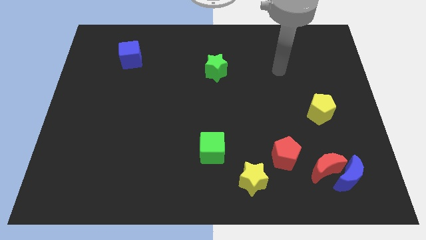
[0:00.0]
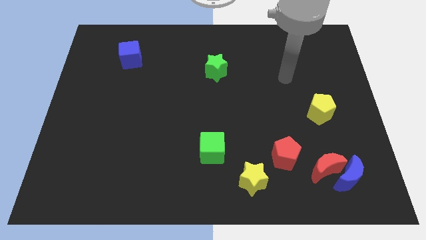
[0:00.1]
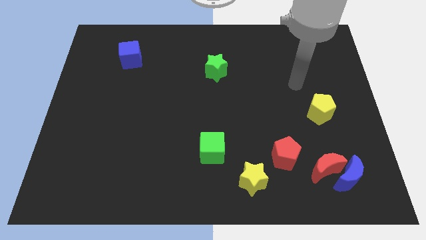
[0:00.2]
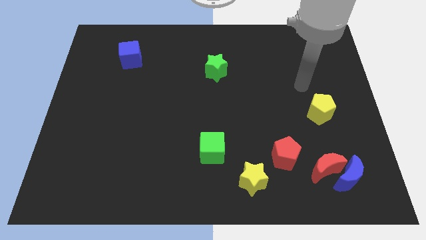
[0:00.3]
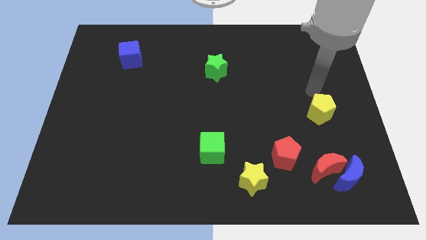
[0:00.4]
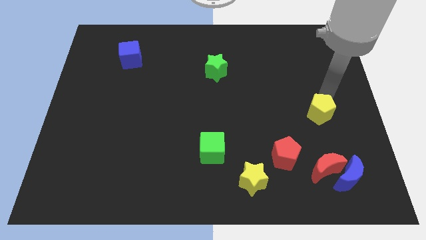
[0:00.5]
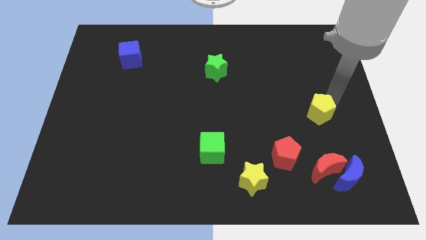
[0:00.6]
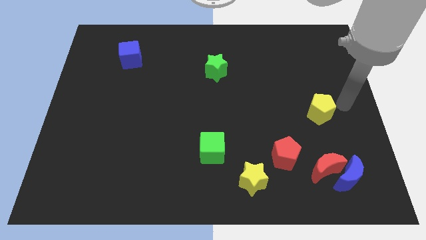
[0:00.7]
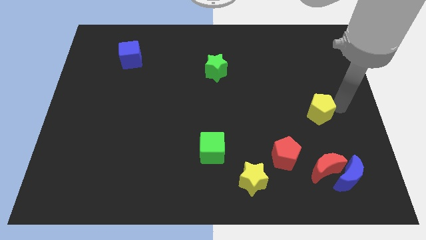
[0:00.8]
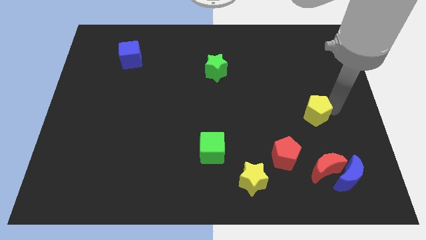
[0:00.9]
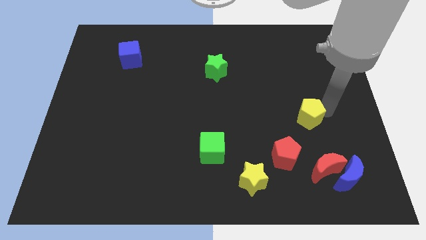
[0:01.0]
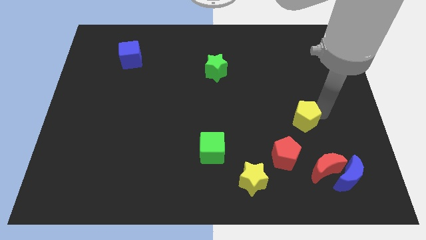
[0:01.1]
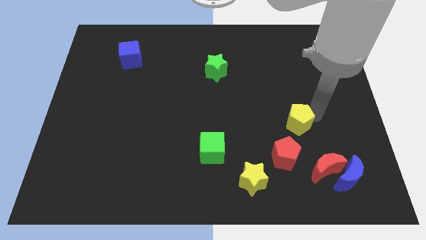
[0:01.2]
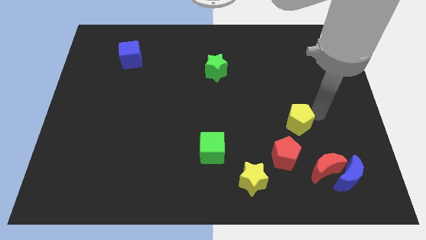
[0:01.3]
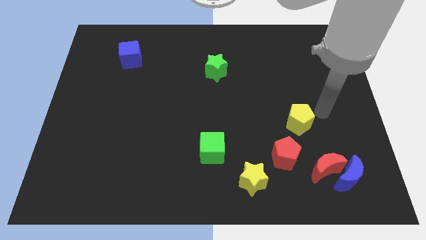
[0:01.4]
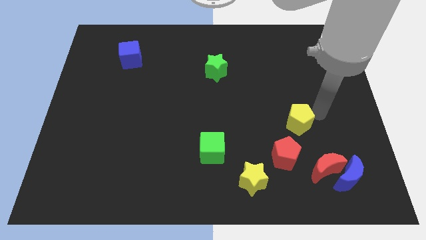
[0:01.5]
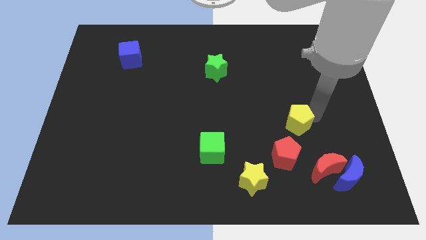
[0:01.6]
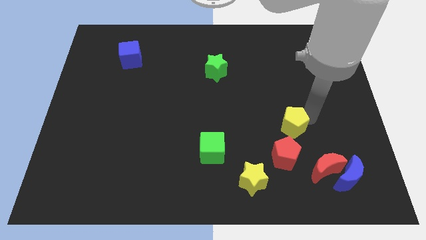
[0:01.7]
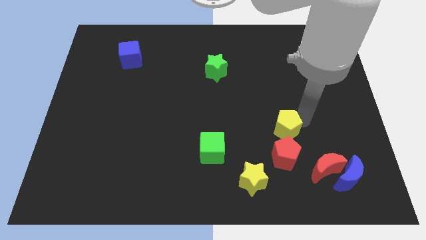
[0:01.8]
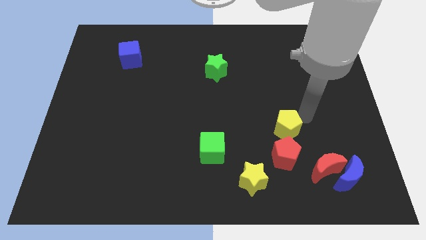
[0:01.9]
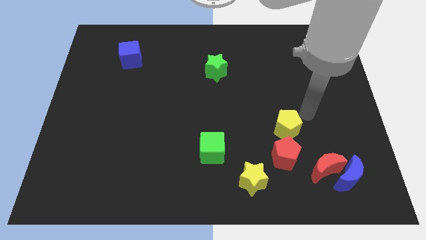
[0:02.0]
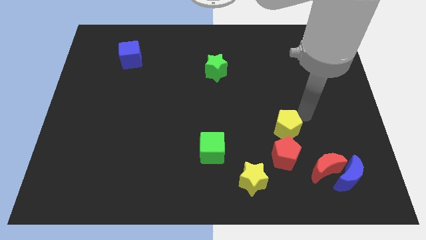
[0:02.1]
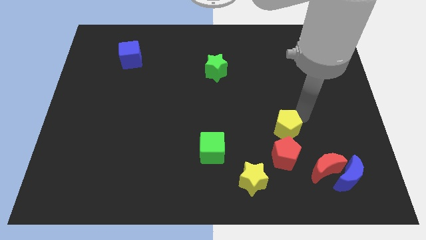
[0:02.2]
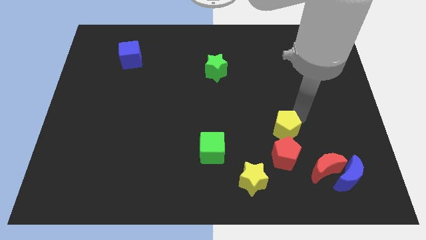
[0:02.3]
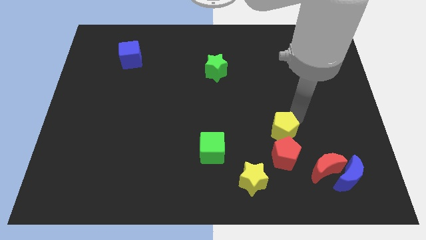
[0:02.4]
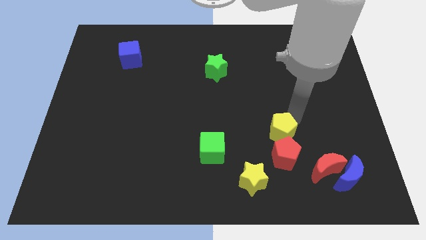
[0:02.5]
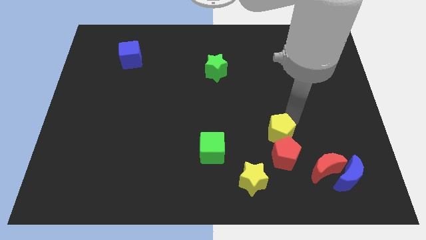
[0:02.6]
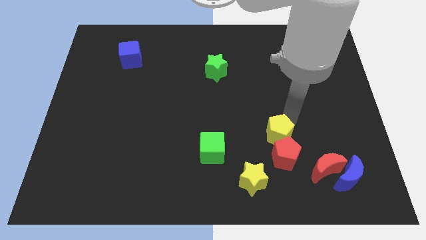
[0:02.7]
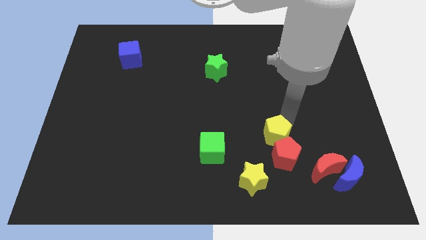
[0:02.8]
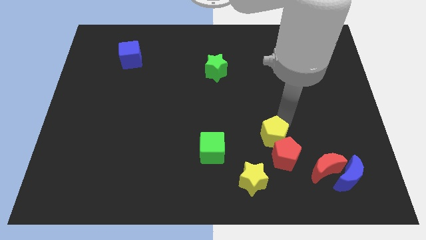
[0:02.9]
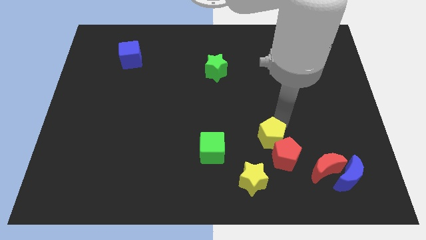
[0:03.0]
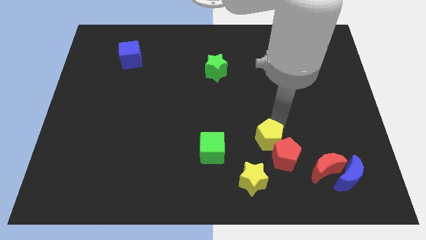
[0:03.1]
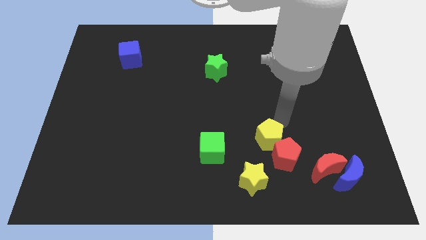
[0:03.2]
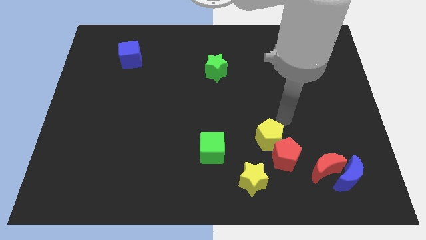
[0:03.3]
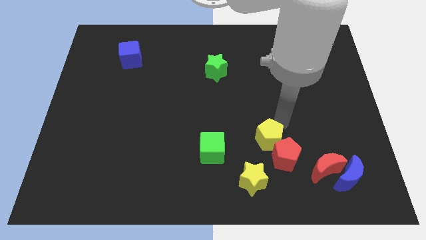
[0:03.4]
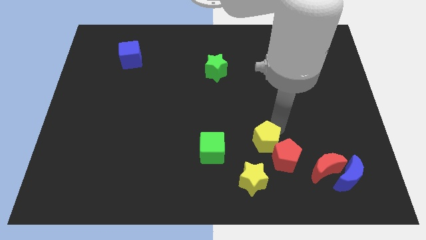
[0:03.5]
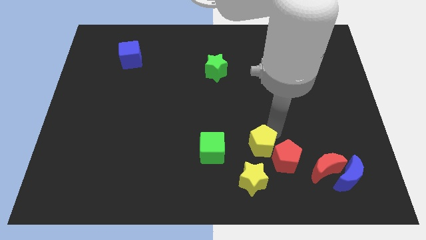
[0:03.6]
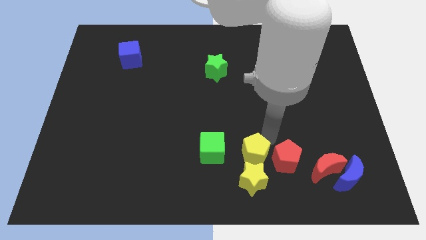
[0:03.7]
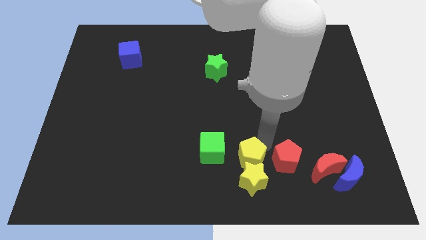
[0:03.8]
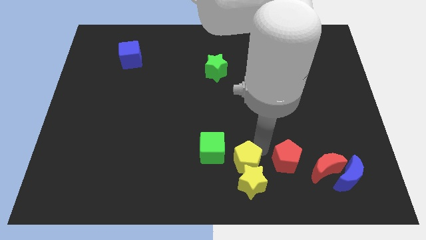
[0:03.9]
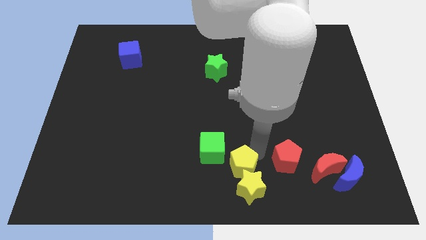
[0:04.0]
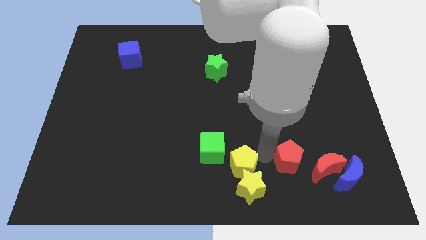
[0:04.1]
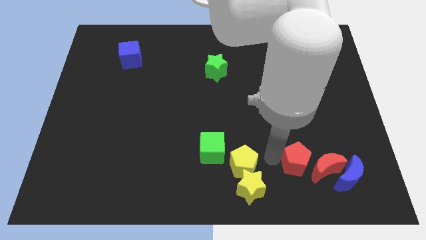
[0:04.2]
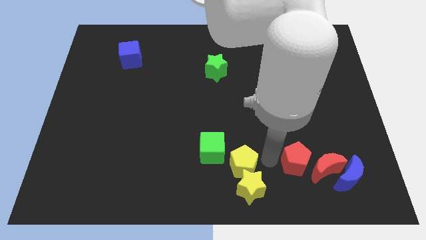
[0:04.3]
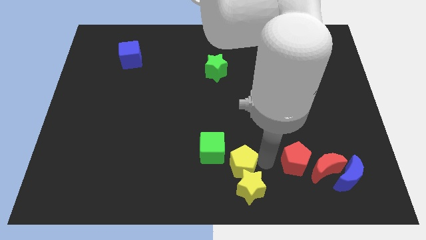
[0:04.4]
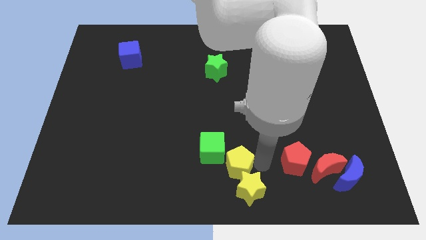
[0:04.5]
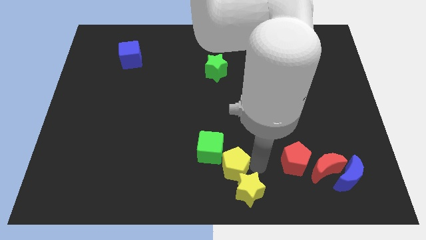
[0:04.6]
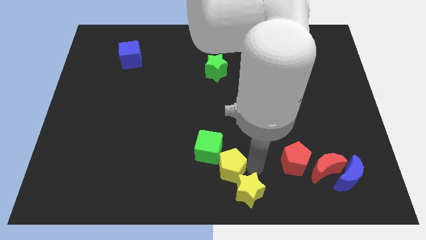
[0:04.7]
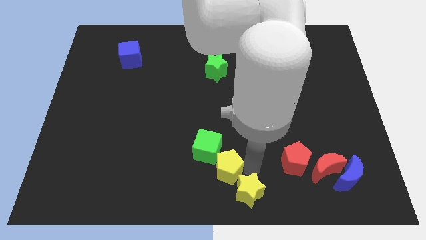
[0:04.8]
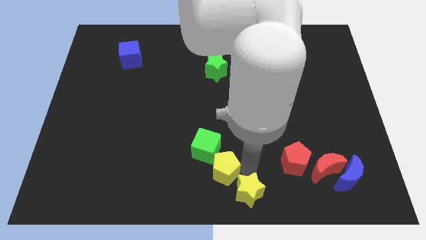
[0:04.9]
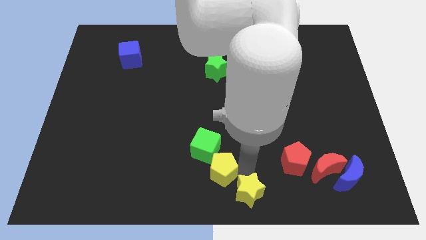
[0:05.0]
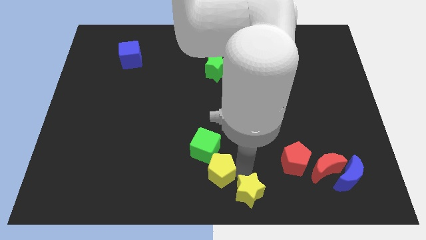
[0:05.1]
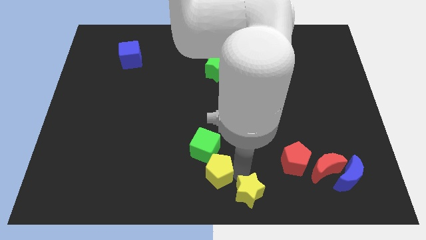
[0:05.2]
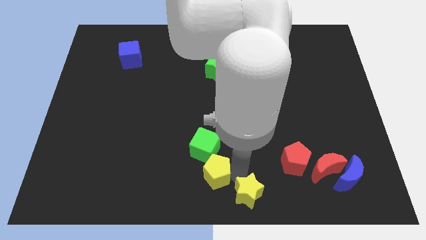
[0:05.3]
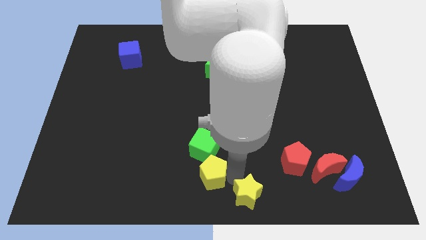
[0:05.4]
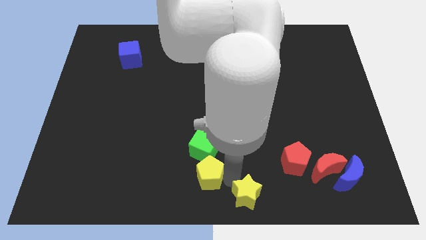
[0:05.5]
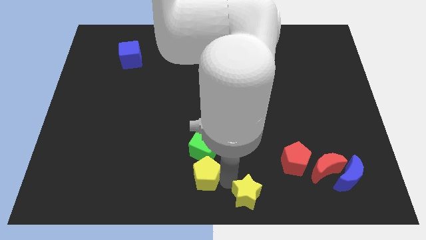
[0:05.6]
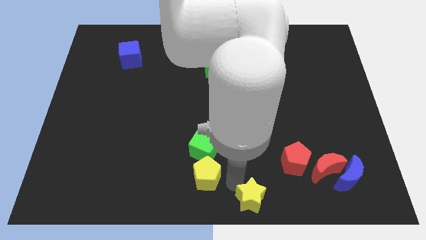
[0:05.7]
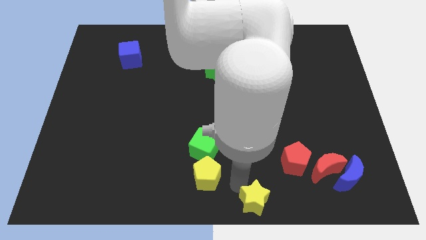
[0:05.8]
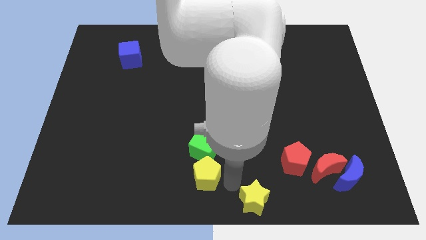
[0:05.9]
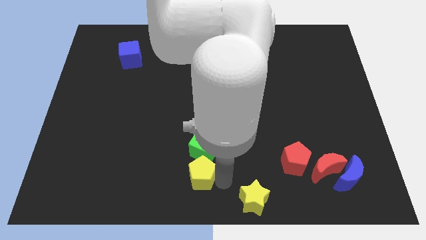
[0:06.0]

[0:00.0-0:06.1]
move the yellow pentagon to the bottom left of the green cube

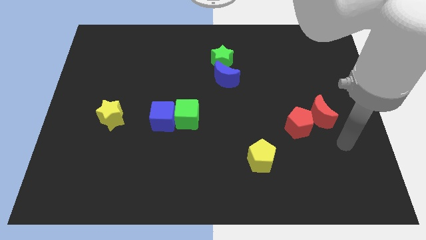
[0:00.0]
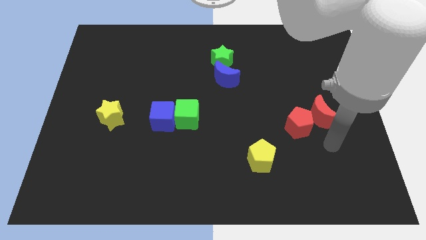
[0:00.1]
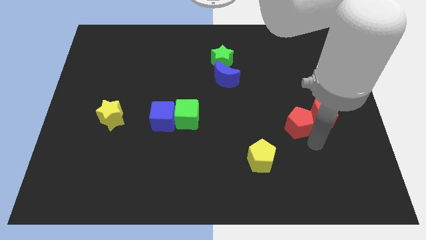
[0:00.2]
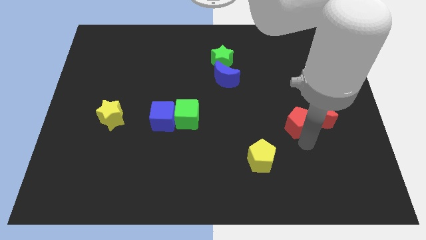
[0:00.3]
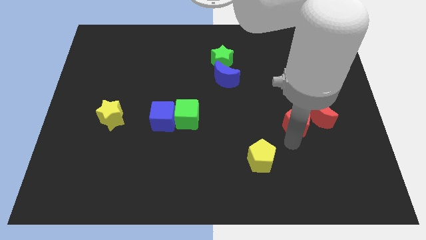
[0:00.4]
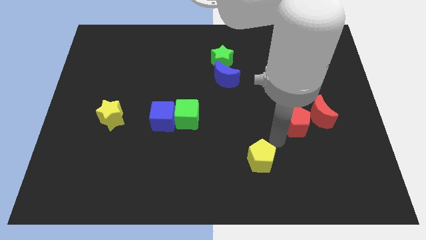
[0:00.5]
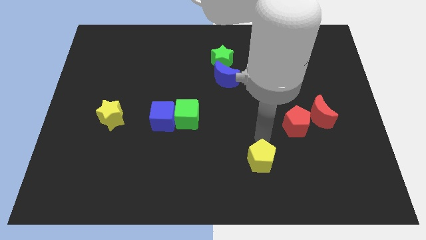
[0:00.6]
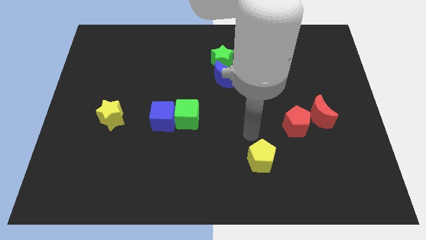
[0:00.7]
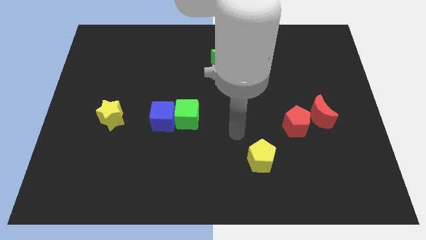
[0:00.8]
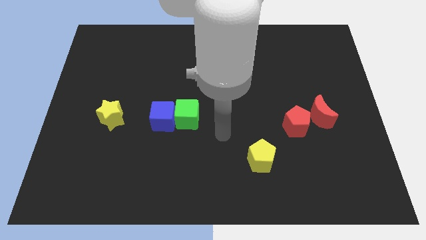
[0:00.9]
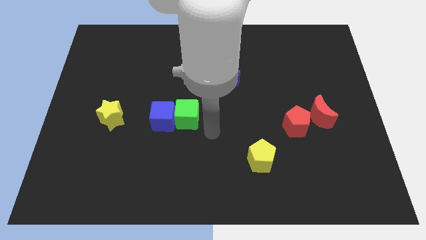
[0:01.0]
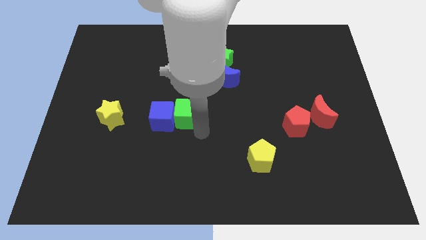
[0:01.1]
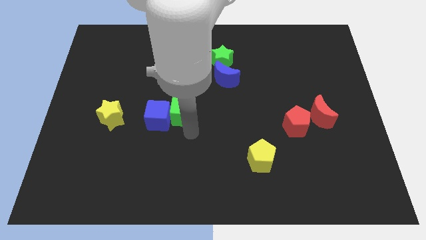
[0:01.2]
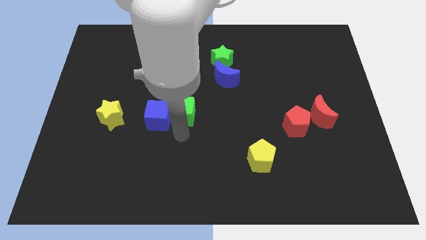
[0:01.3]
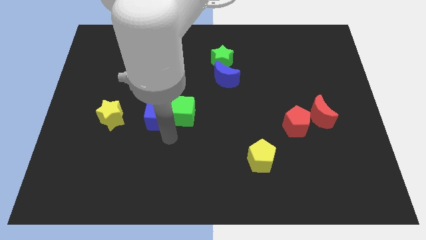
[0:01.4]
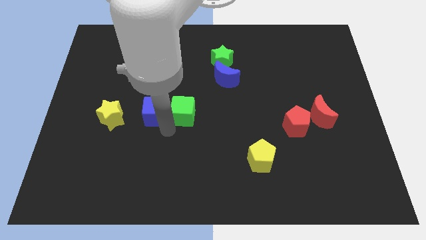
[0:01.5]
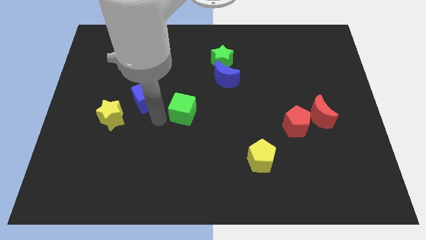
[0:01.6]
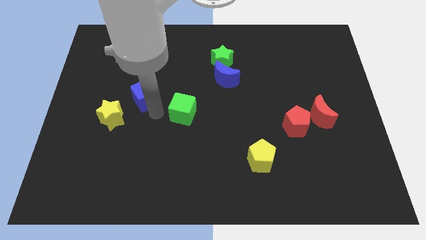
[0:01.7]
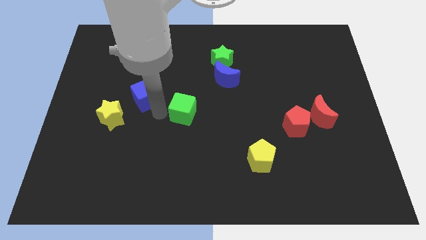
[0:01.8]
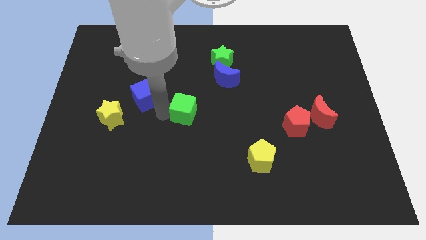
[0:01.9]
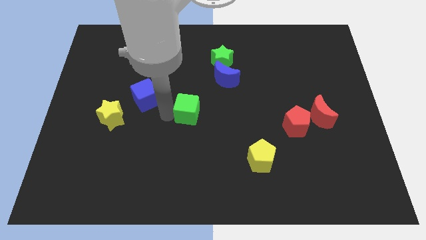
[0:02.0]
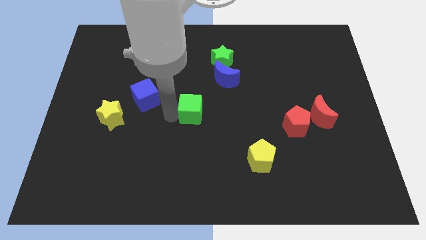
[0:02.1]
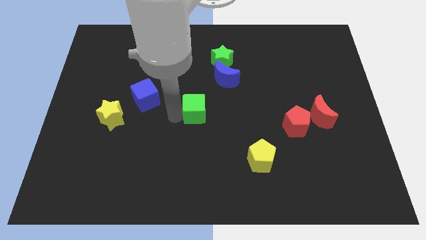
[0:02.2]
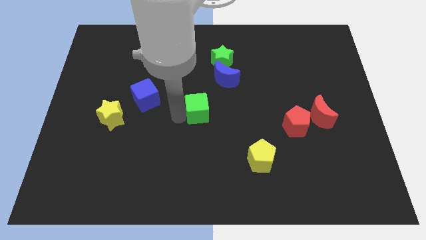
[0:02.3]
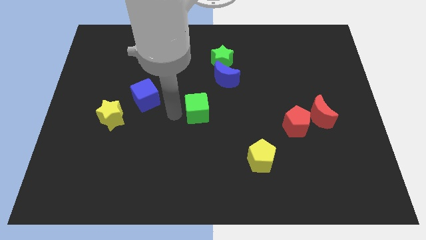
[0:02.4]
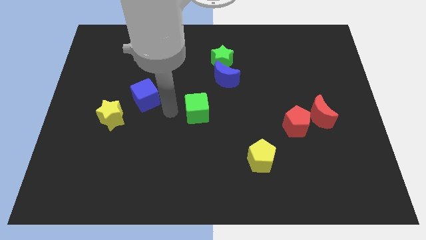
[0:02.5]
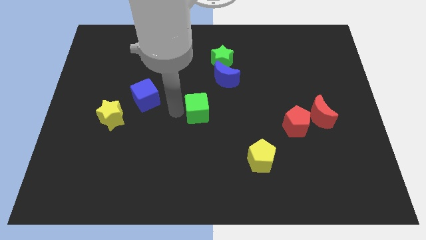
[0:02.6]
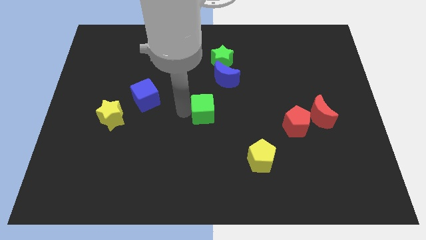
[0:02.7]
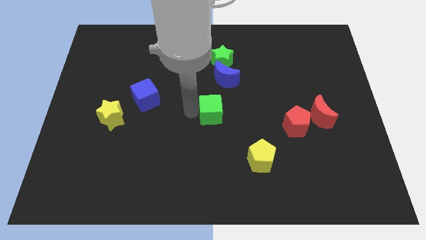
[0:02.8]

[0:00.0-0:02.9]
push the green cube to the bottom of the blue moon
